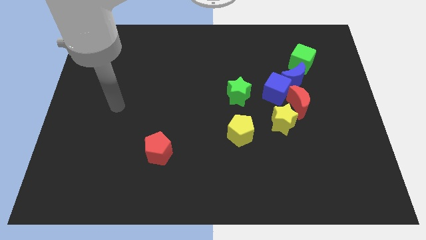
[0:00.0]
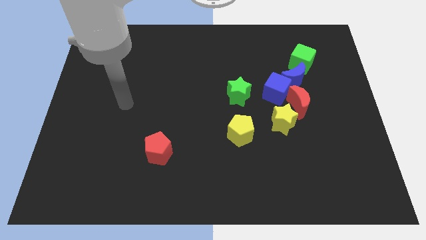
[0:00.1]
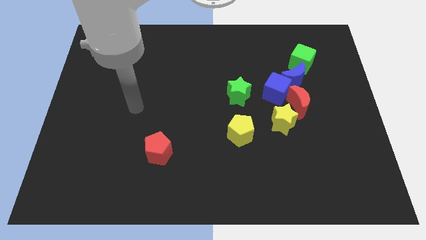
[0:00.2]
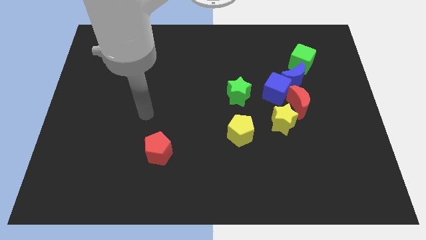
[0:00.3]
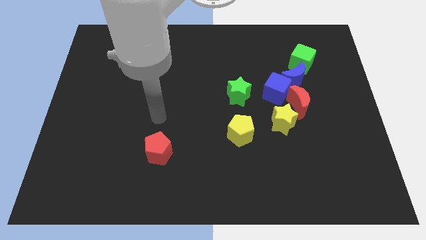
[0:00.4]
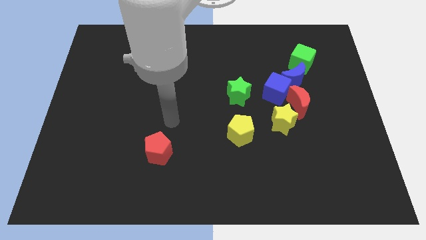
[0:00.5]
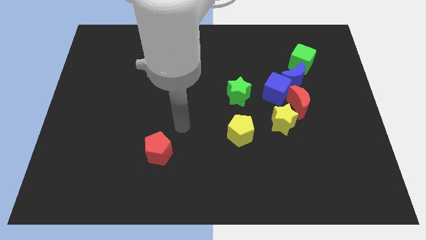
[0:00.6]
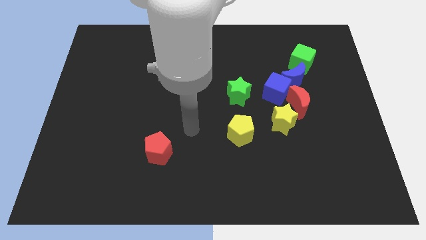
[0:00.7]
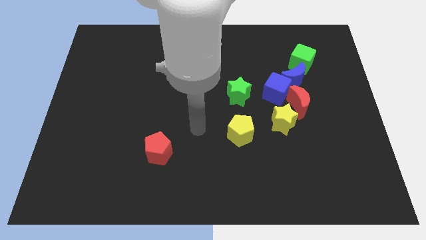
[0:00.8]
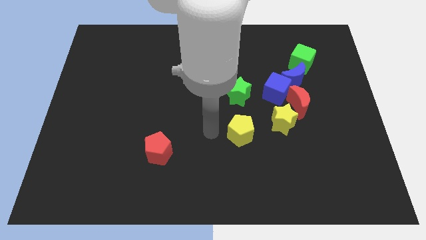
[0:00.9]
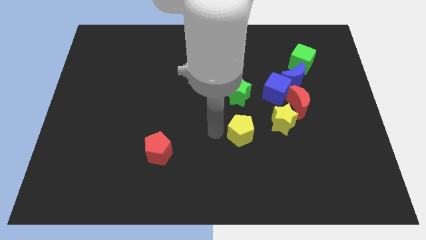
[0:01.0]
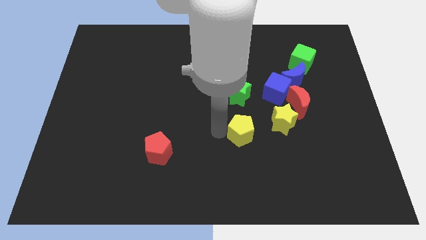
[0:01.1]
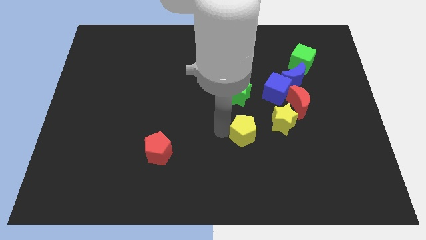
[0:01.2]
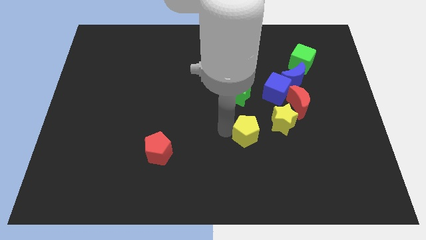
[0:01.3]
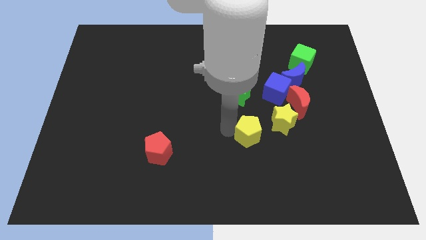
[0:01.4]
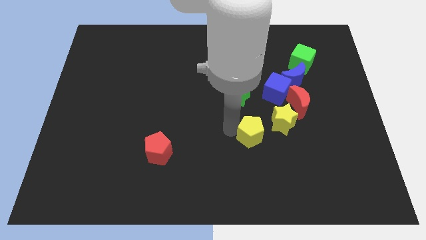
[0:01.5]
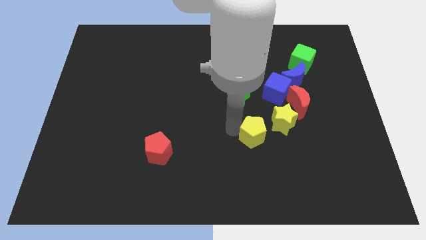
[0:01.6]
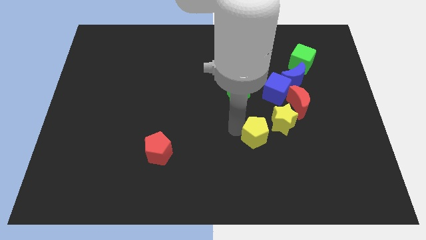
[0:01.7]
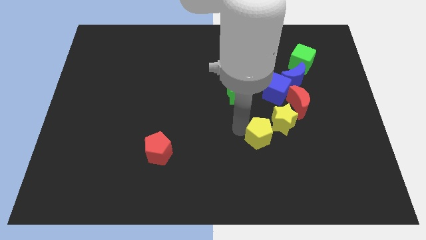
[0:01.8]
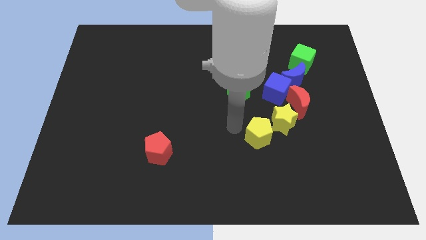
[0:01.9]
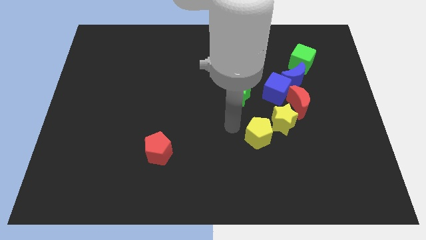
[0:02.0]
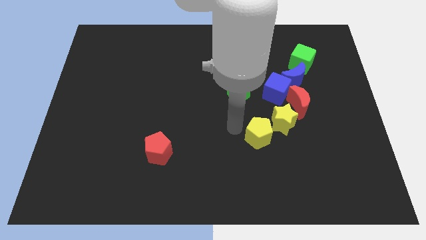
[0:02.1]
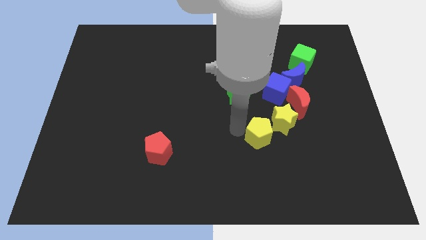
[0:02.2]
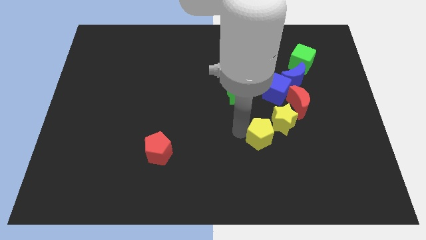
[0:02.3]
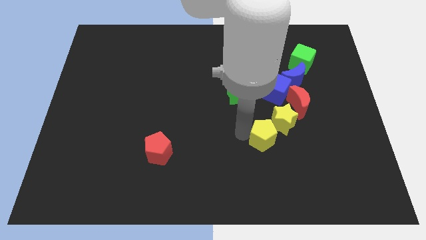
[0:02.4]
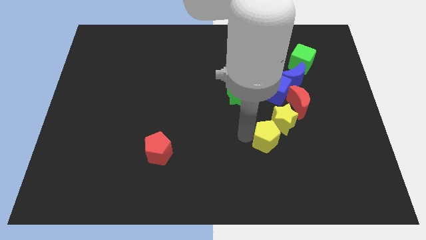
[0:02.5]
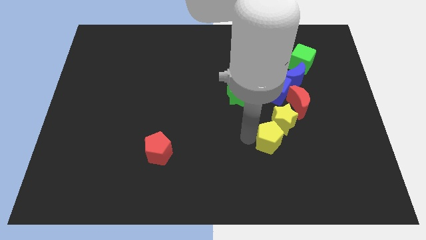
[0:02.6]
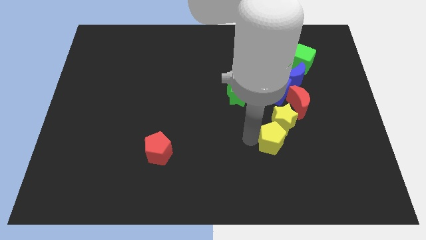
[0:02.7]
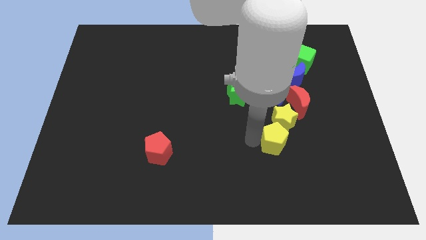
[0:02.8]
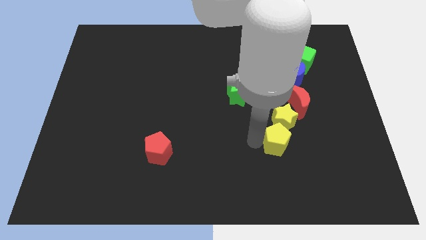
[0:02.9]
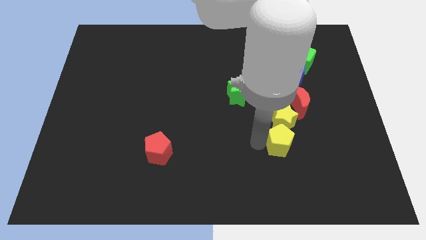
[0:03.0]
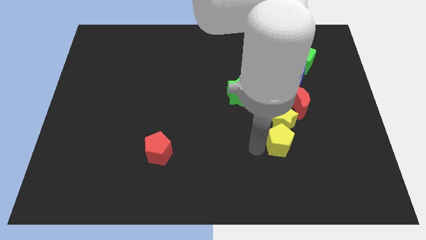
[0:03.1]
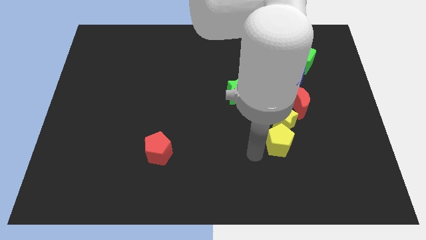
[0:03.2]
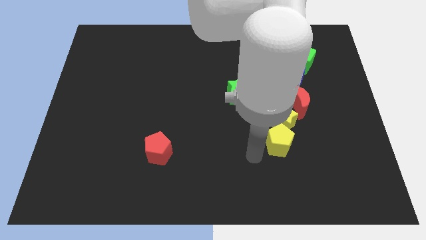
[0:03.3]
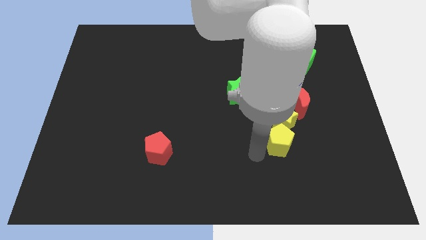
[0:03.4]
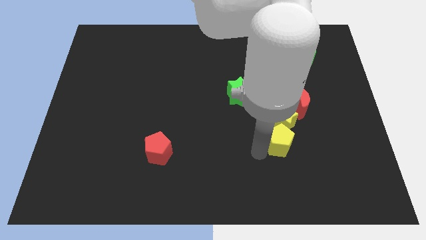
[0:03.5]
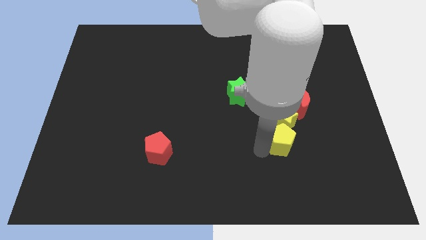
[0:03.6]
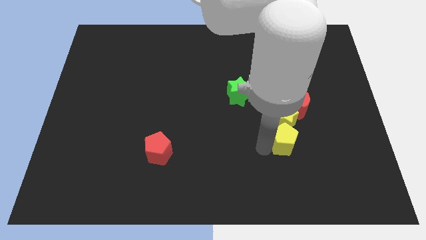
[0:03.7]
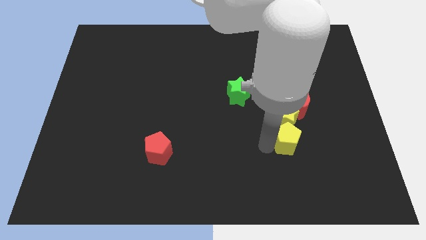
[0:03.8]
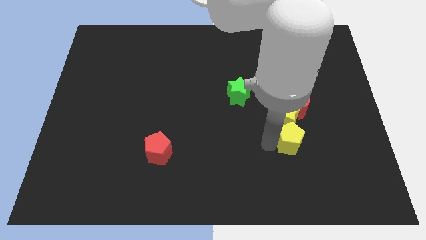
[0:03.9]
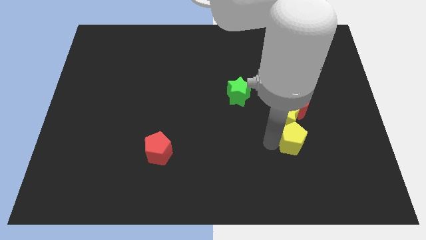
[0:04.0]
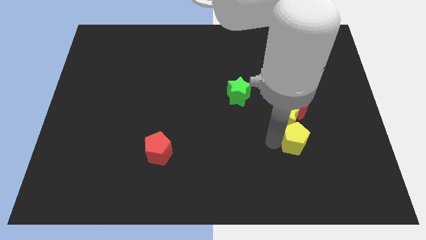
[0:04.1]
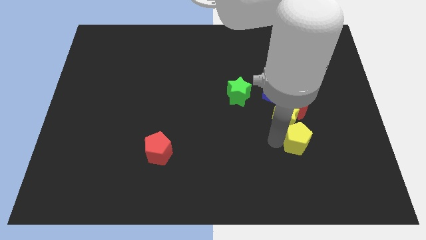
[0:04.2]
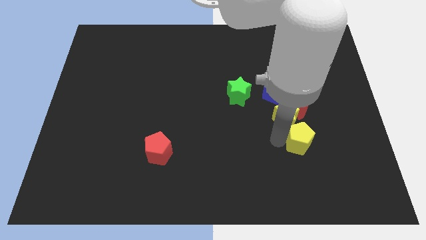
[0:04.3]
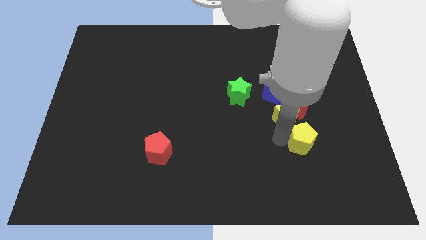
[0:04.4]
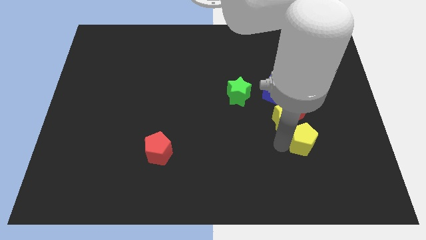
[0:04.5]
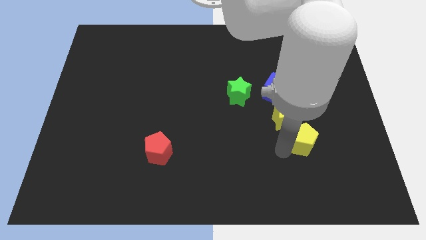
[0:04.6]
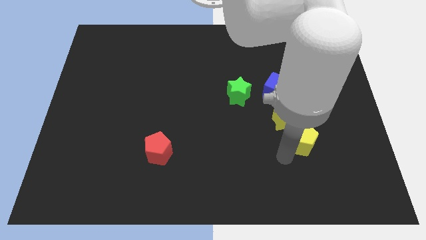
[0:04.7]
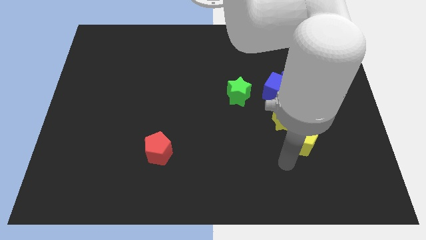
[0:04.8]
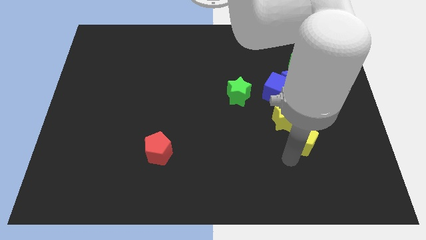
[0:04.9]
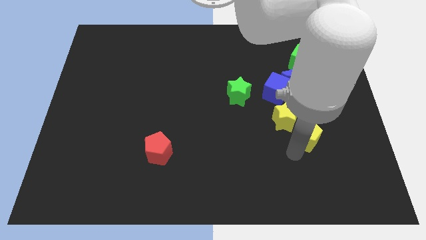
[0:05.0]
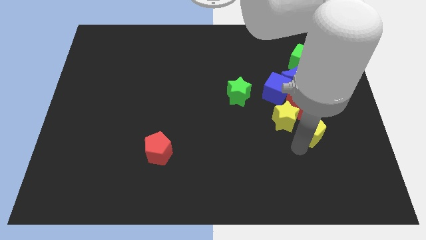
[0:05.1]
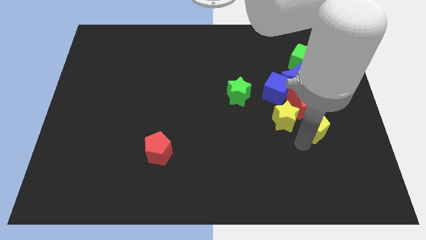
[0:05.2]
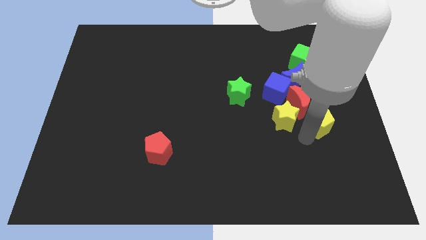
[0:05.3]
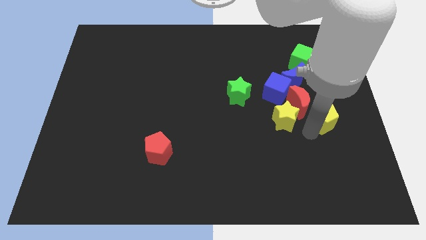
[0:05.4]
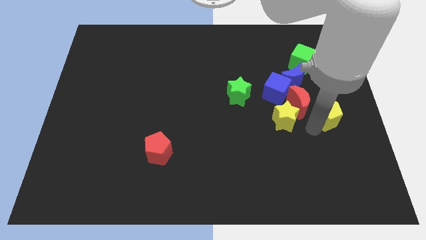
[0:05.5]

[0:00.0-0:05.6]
slide the yellow pentagon to the right side of the board
